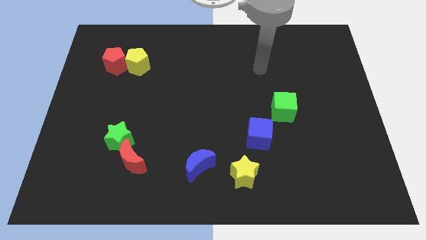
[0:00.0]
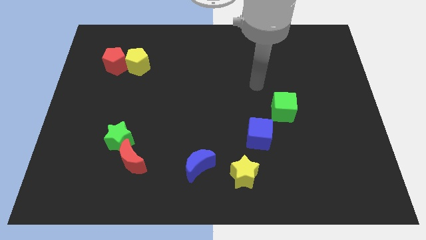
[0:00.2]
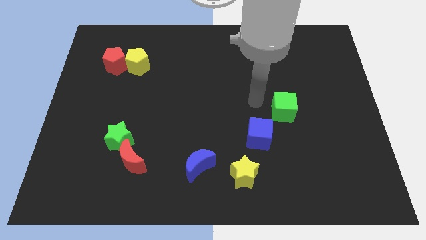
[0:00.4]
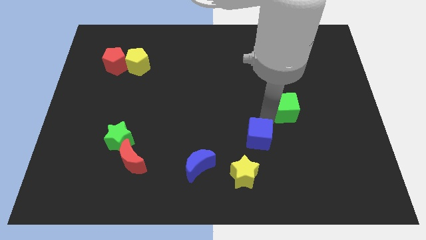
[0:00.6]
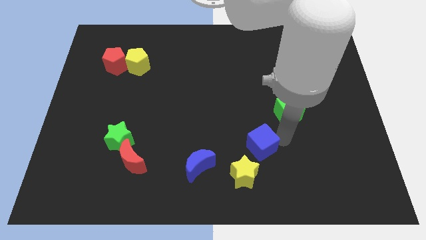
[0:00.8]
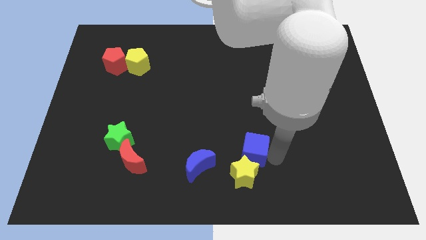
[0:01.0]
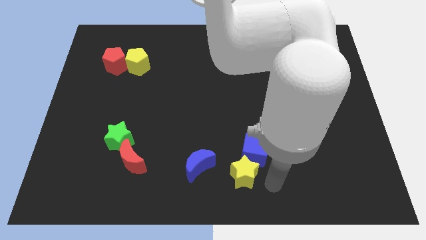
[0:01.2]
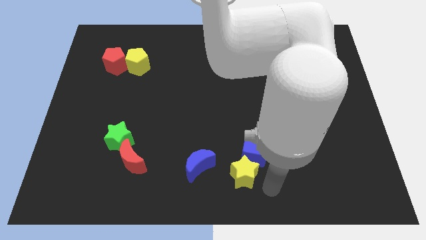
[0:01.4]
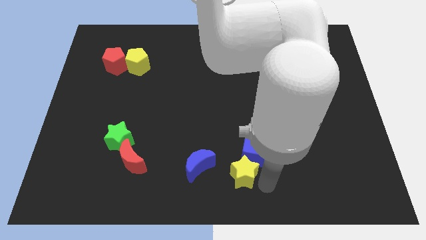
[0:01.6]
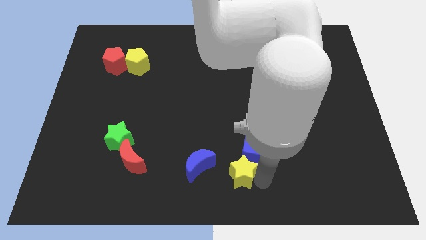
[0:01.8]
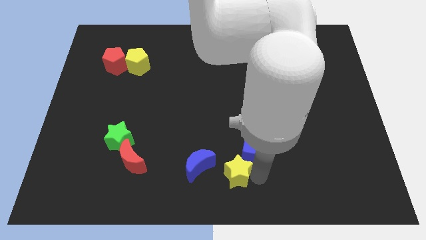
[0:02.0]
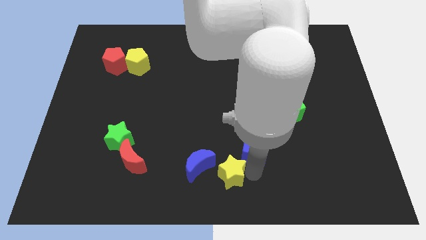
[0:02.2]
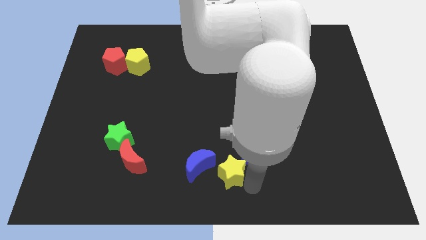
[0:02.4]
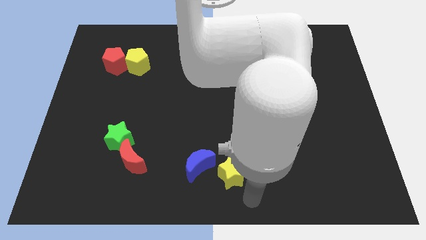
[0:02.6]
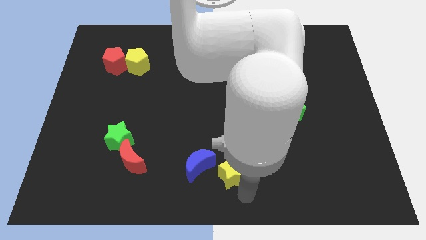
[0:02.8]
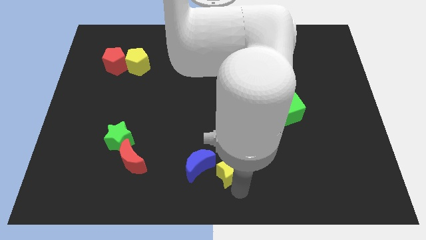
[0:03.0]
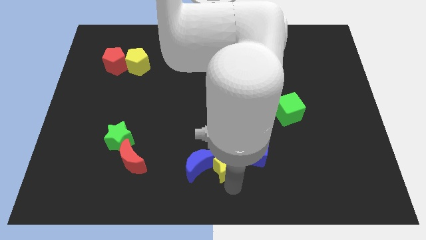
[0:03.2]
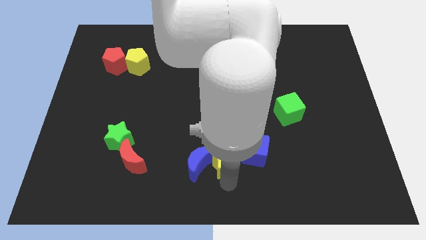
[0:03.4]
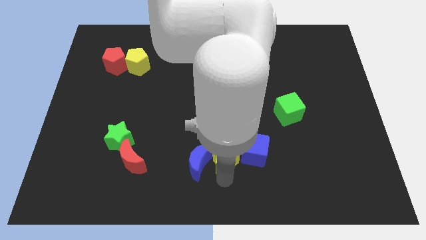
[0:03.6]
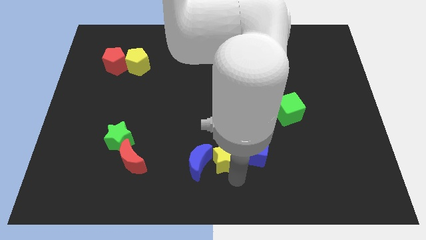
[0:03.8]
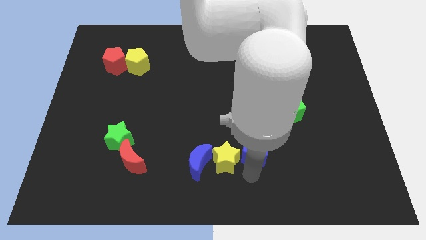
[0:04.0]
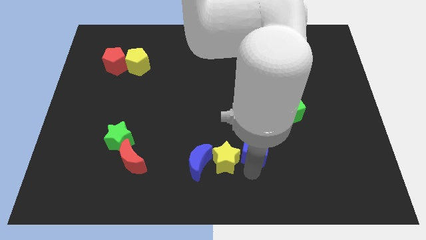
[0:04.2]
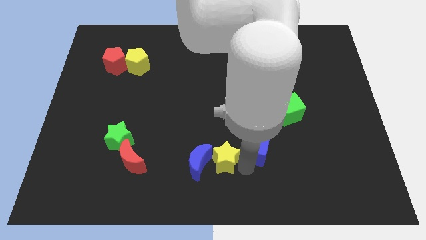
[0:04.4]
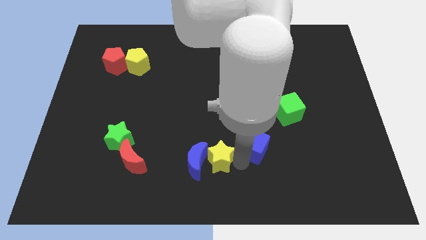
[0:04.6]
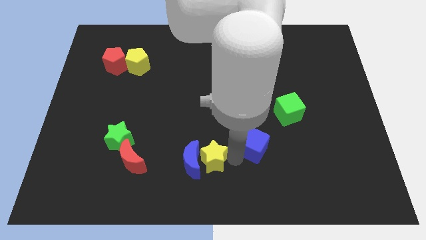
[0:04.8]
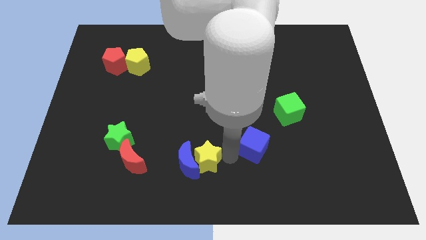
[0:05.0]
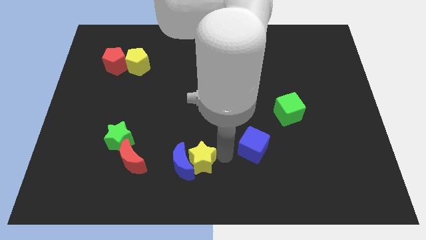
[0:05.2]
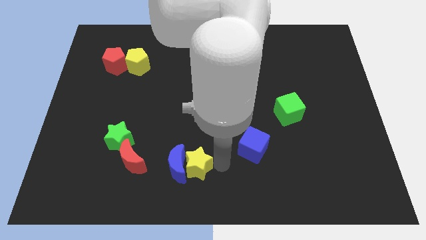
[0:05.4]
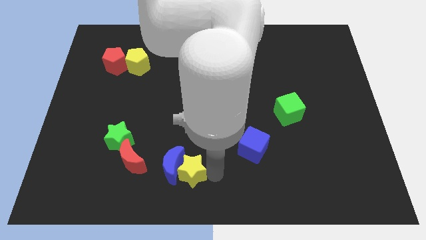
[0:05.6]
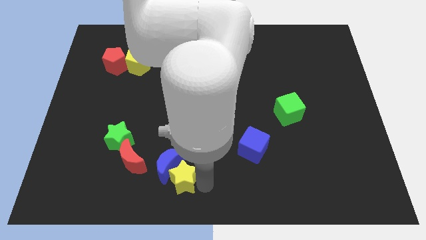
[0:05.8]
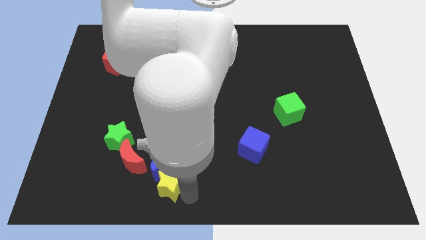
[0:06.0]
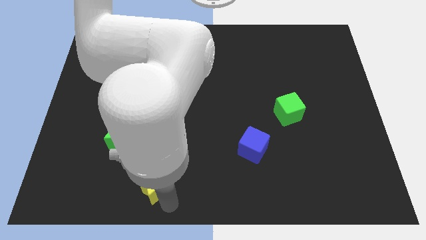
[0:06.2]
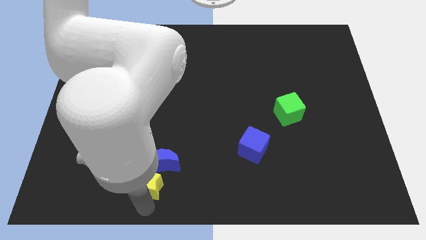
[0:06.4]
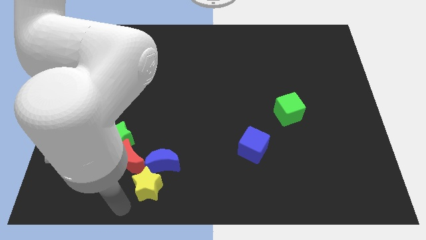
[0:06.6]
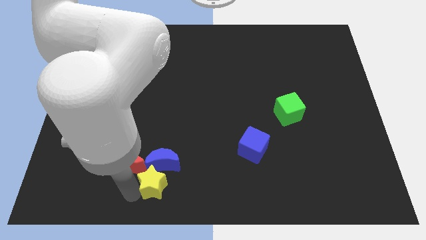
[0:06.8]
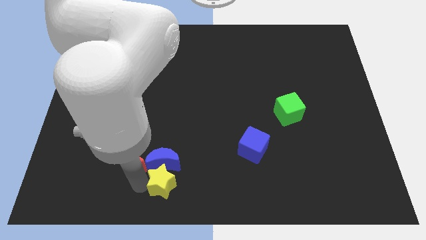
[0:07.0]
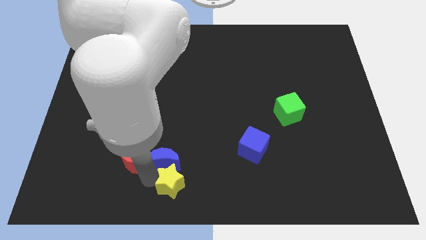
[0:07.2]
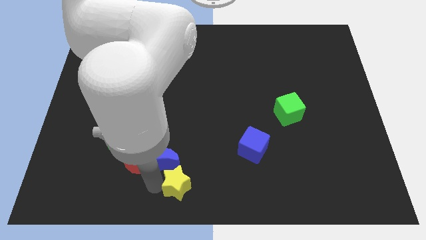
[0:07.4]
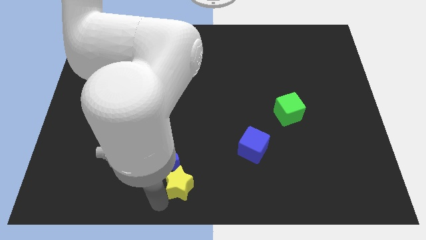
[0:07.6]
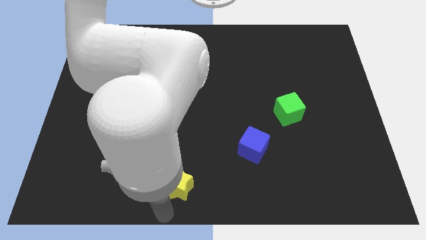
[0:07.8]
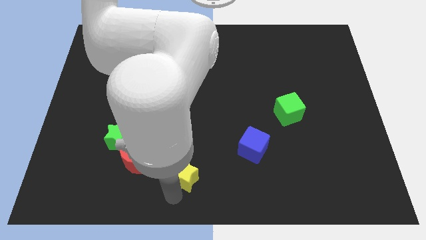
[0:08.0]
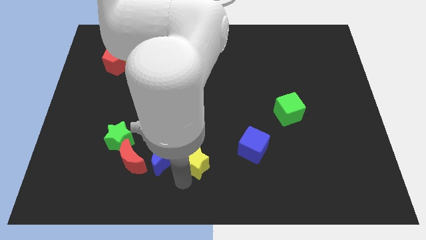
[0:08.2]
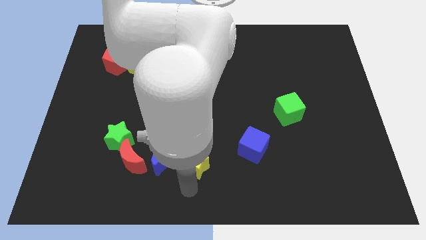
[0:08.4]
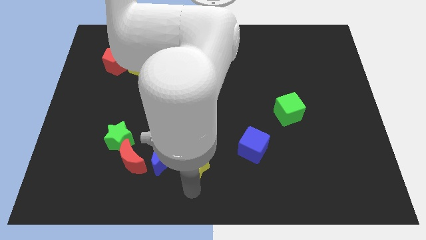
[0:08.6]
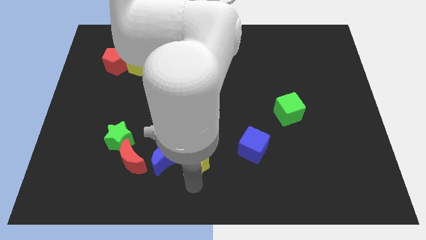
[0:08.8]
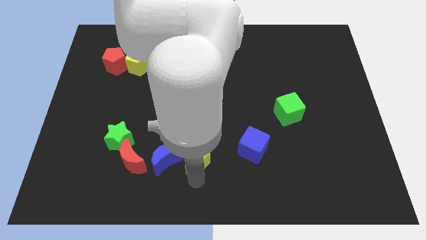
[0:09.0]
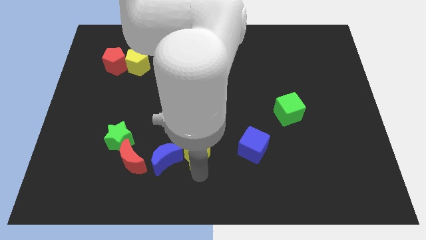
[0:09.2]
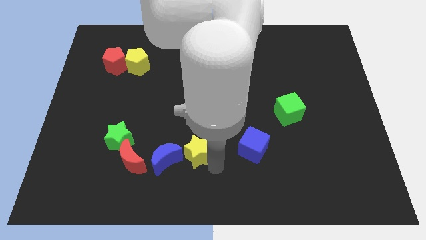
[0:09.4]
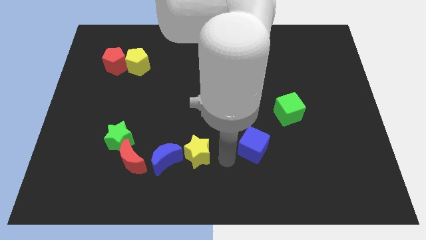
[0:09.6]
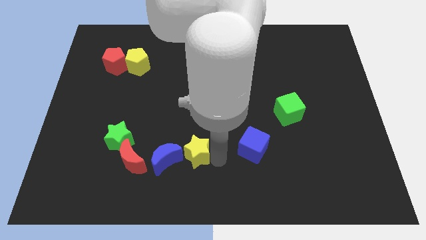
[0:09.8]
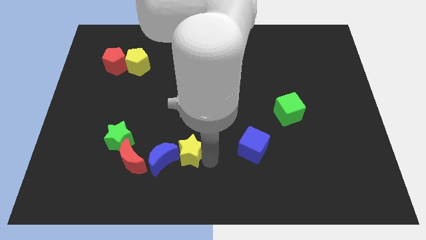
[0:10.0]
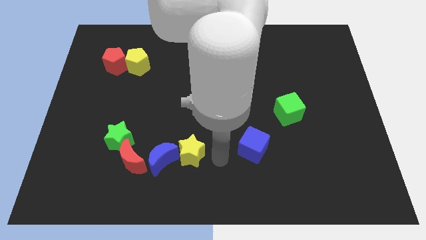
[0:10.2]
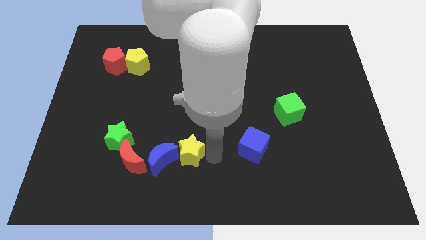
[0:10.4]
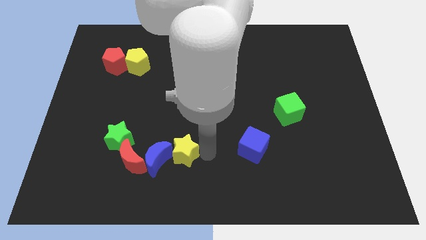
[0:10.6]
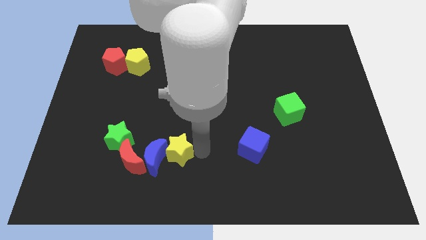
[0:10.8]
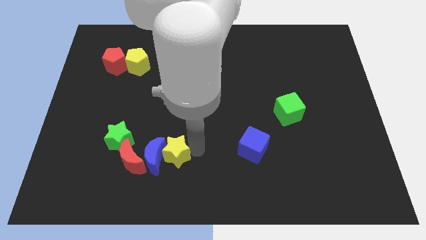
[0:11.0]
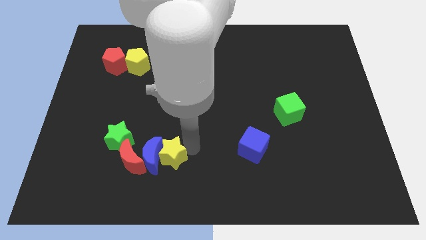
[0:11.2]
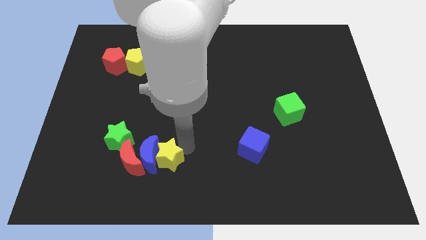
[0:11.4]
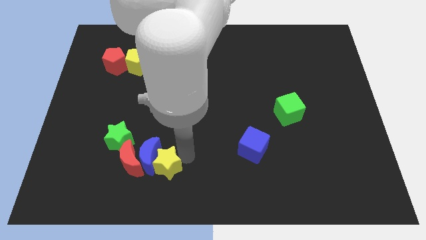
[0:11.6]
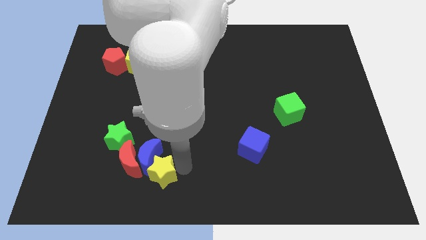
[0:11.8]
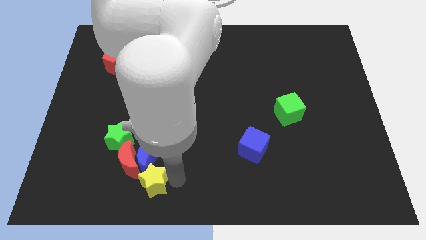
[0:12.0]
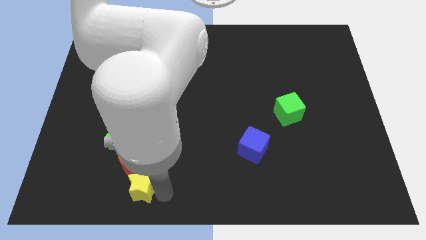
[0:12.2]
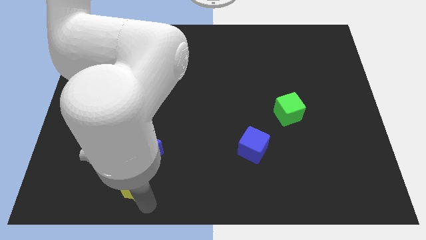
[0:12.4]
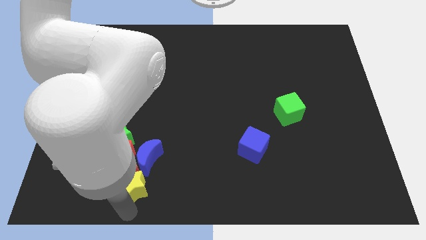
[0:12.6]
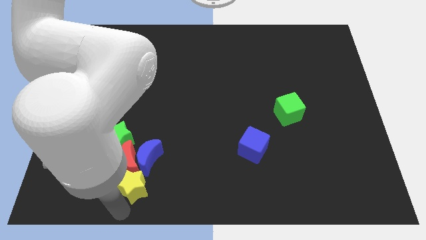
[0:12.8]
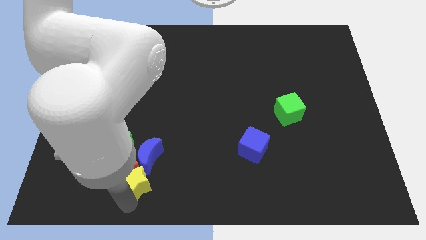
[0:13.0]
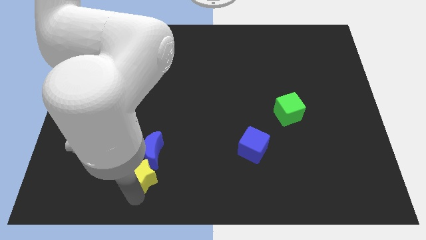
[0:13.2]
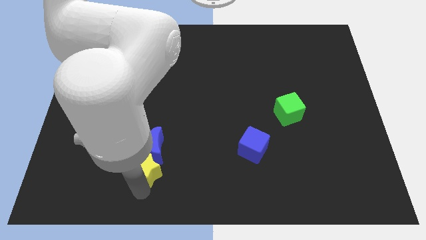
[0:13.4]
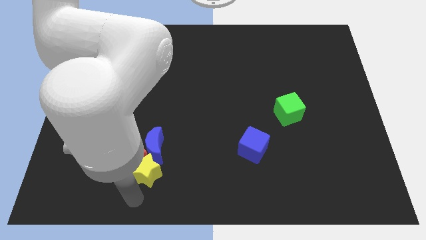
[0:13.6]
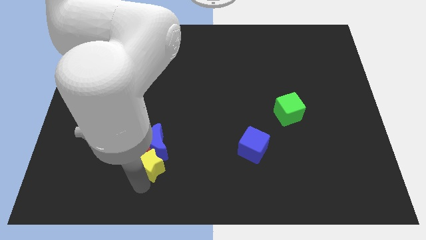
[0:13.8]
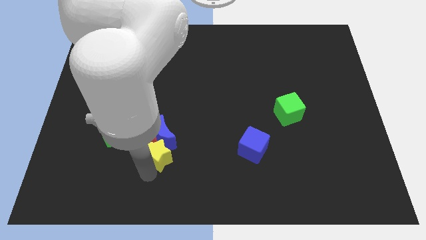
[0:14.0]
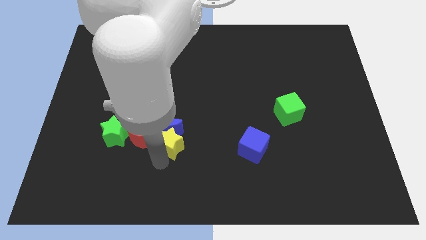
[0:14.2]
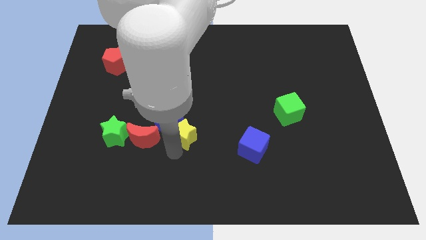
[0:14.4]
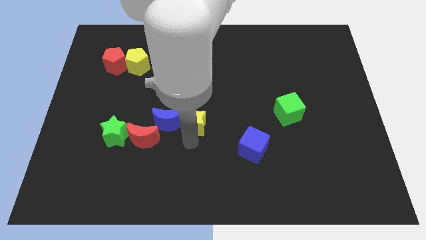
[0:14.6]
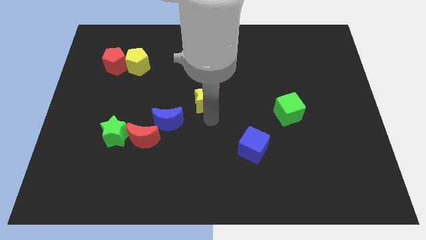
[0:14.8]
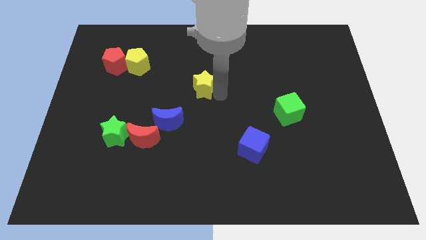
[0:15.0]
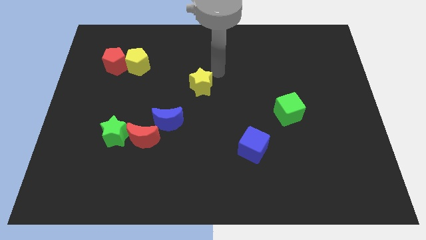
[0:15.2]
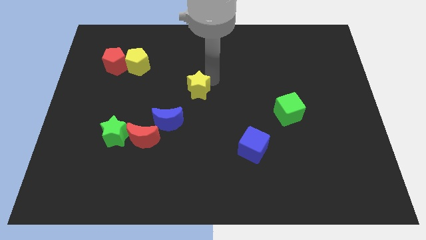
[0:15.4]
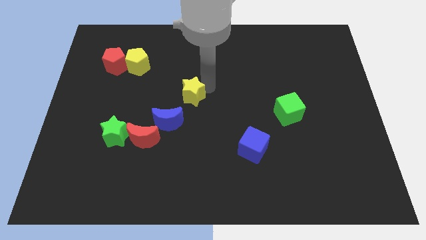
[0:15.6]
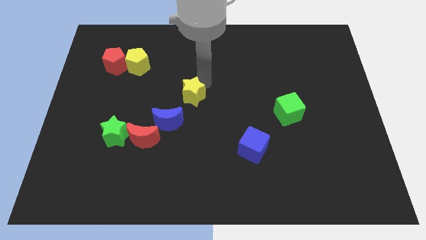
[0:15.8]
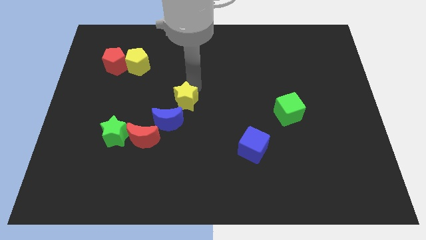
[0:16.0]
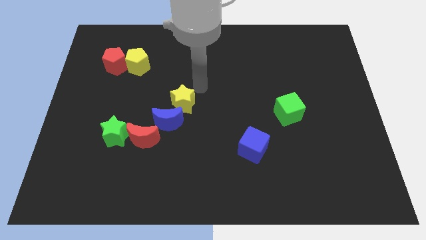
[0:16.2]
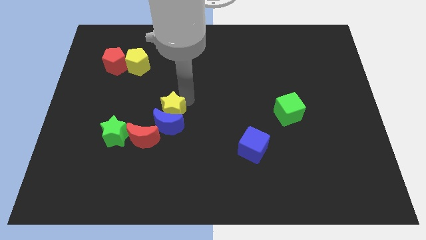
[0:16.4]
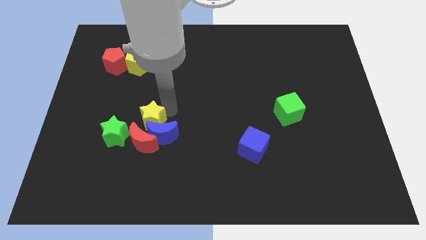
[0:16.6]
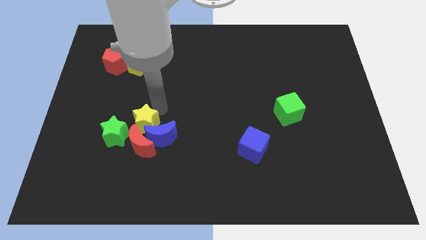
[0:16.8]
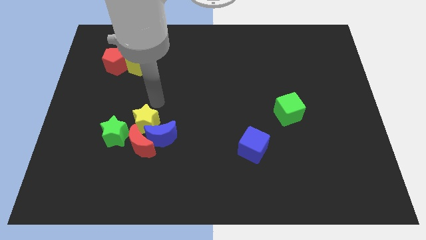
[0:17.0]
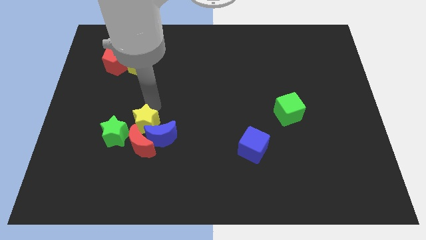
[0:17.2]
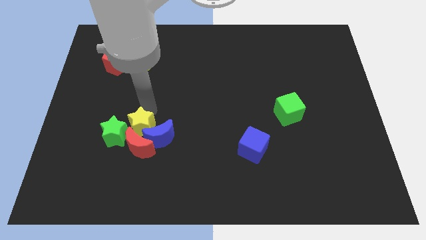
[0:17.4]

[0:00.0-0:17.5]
slide the yellow star towards the green star
